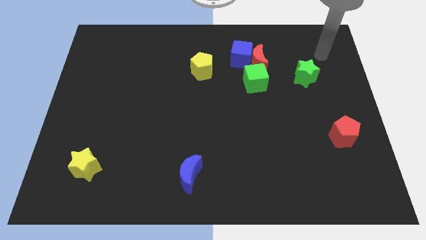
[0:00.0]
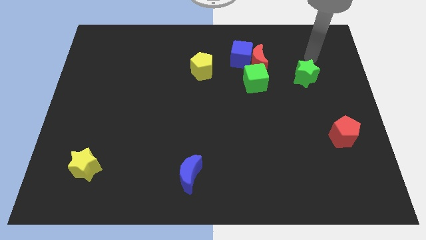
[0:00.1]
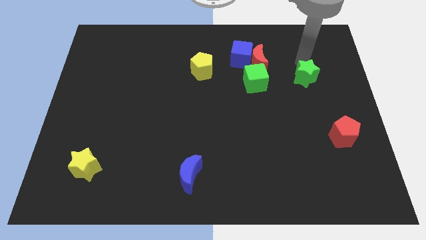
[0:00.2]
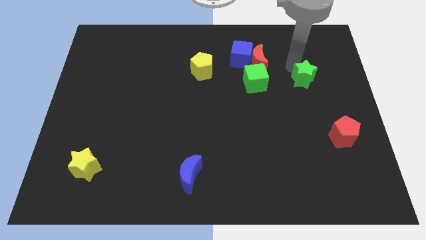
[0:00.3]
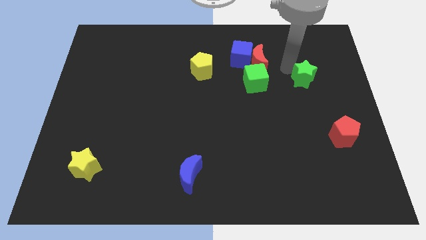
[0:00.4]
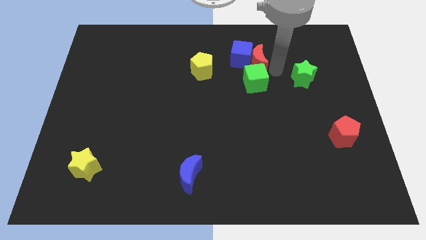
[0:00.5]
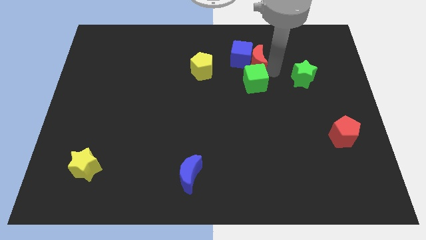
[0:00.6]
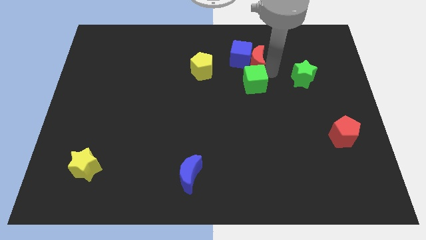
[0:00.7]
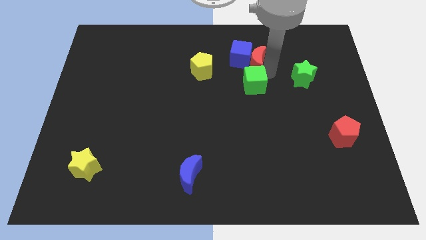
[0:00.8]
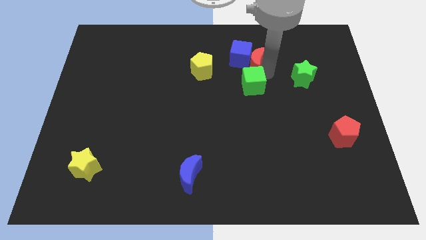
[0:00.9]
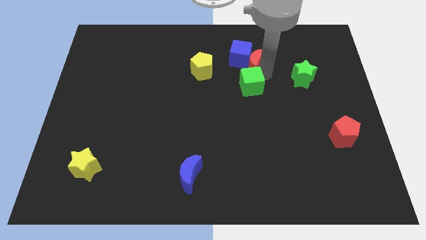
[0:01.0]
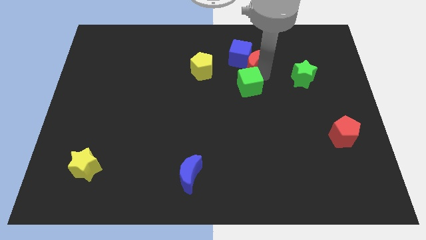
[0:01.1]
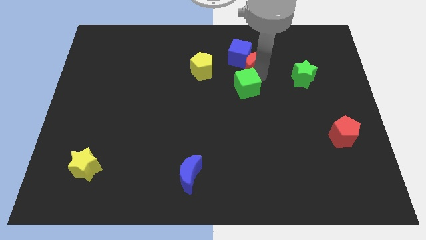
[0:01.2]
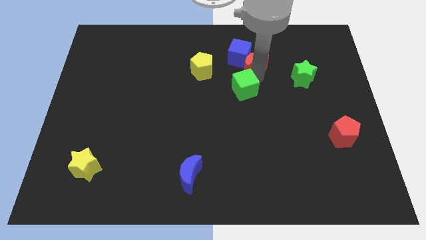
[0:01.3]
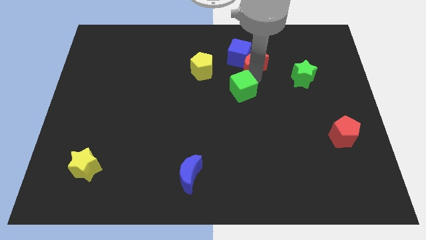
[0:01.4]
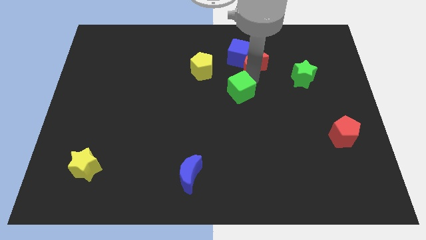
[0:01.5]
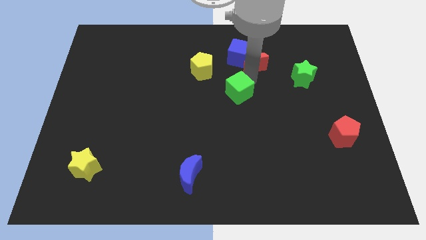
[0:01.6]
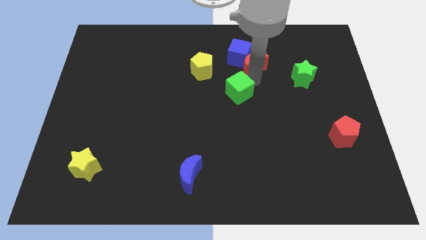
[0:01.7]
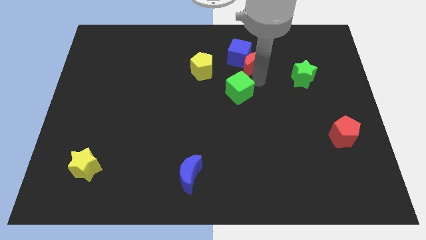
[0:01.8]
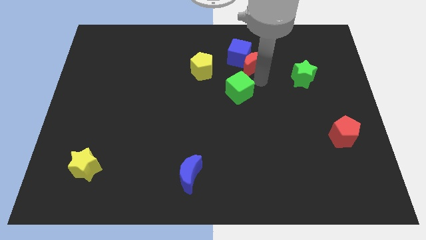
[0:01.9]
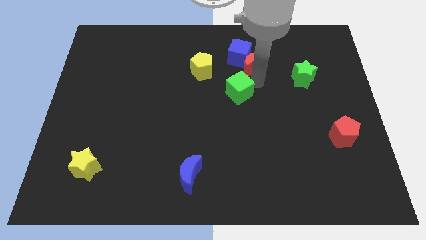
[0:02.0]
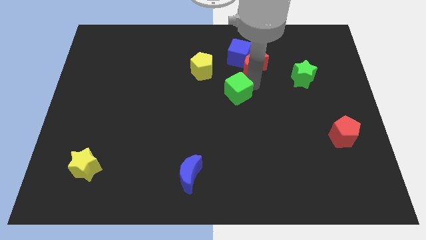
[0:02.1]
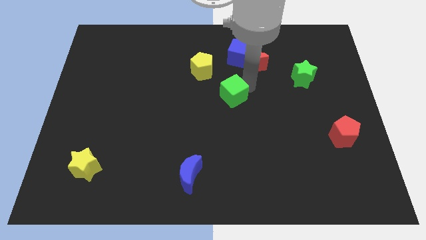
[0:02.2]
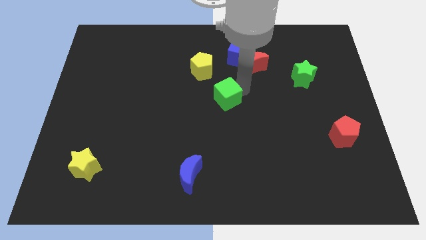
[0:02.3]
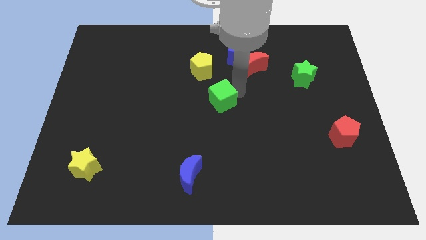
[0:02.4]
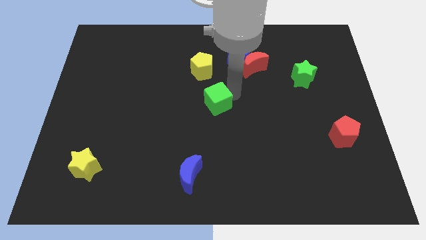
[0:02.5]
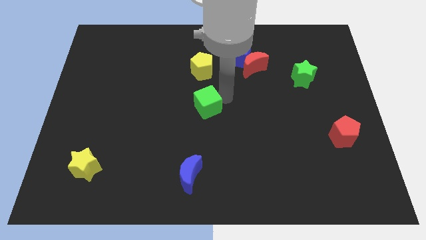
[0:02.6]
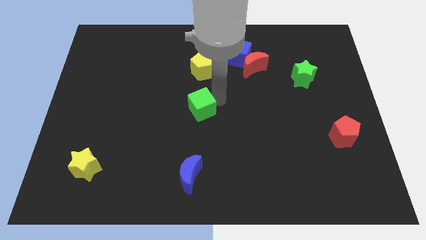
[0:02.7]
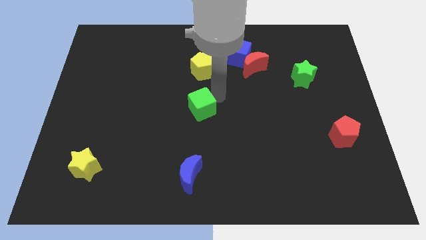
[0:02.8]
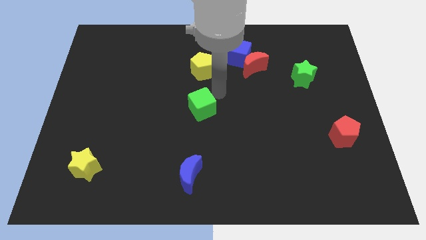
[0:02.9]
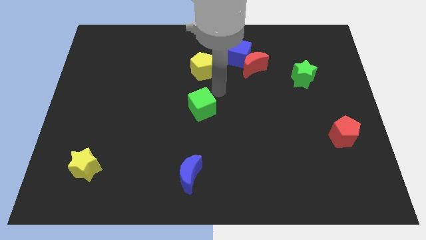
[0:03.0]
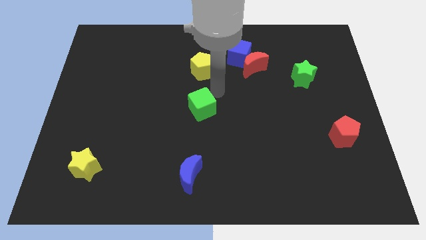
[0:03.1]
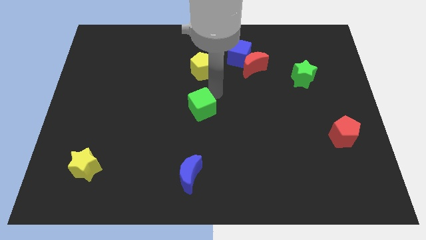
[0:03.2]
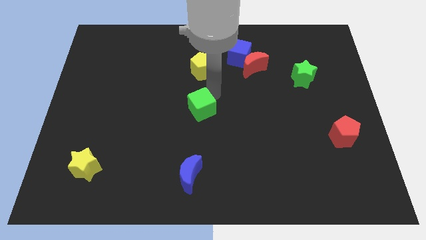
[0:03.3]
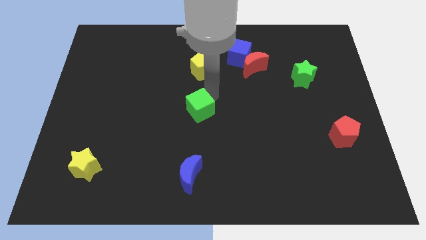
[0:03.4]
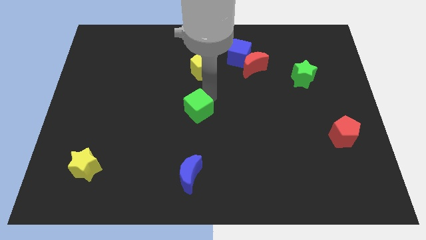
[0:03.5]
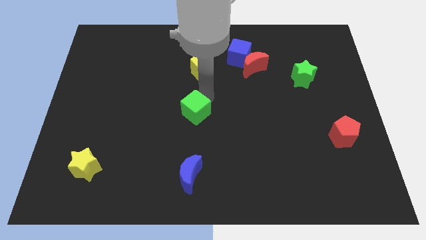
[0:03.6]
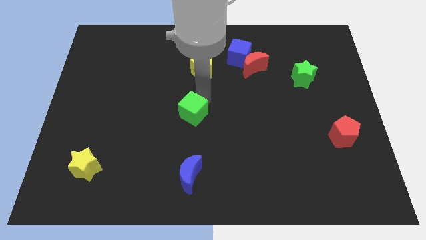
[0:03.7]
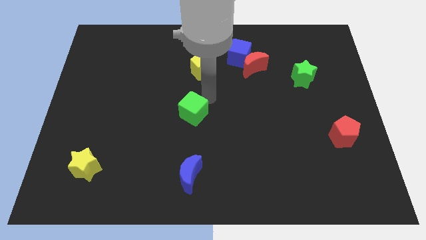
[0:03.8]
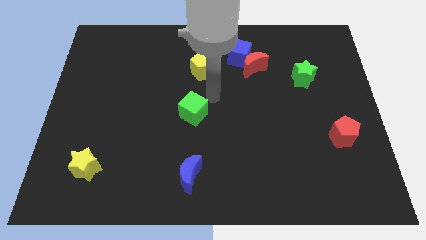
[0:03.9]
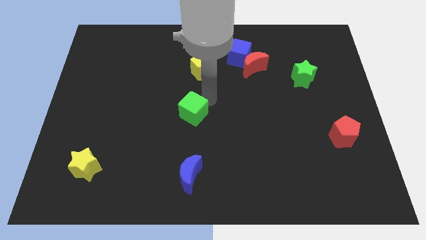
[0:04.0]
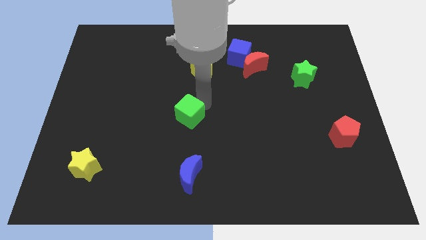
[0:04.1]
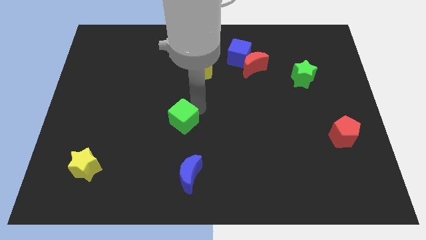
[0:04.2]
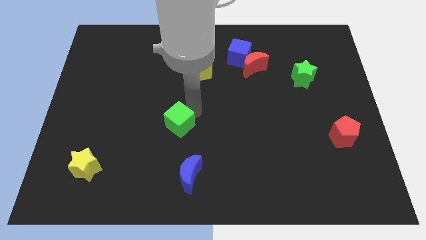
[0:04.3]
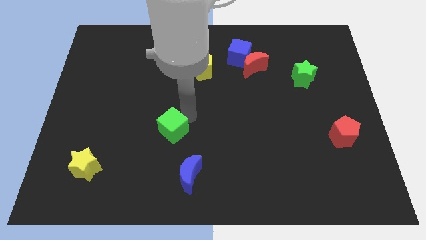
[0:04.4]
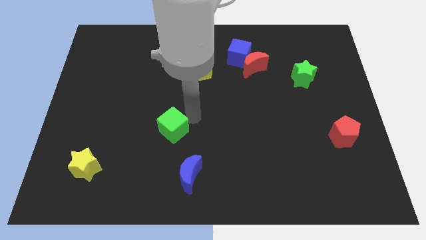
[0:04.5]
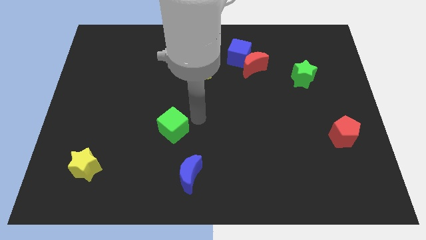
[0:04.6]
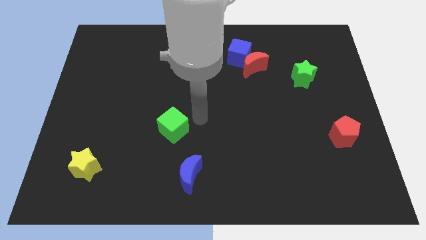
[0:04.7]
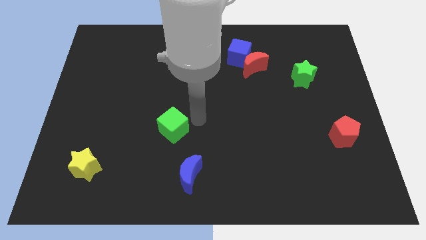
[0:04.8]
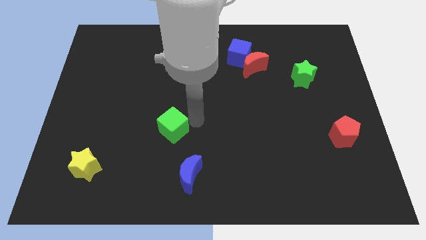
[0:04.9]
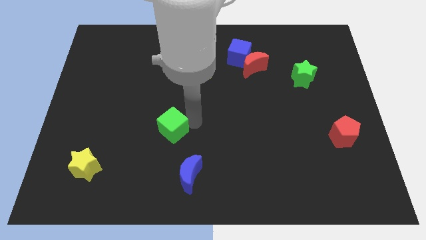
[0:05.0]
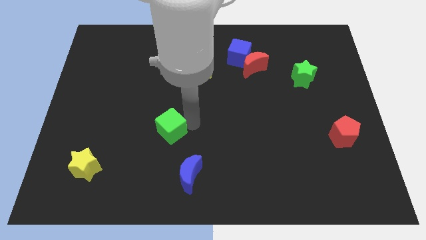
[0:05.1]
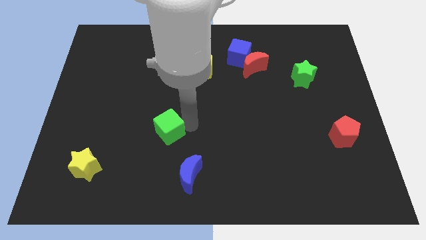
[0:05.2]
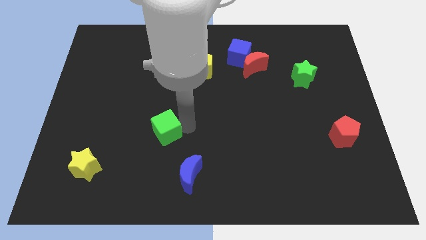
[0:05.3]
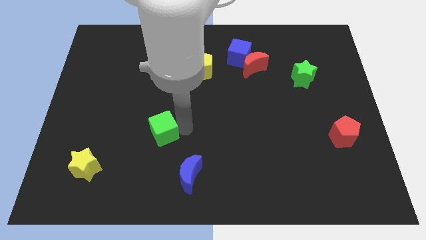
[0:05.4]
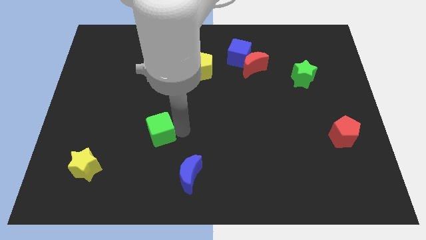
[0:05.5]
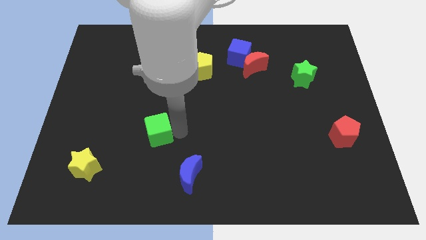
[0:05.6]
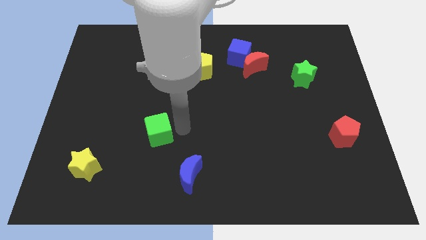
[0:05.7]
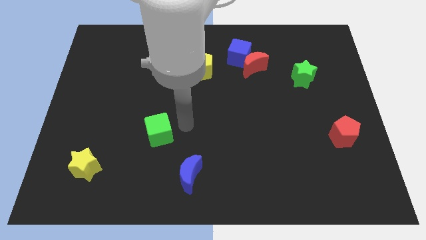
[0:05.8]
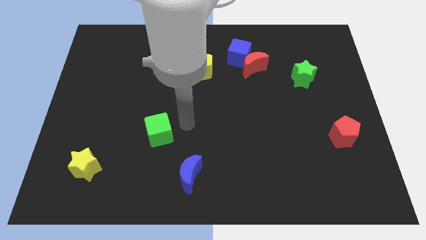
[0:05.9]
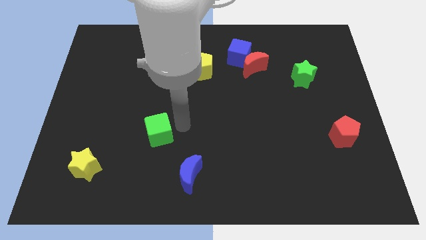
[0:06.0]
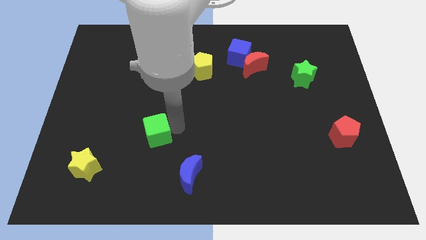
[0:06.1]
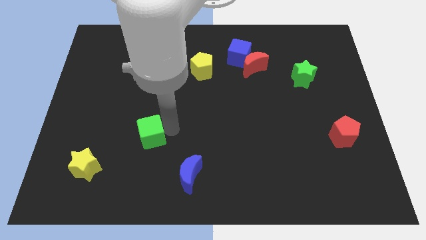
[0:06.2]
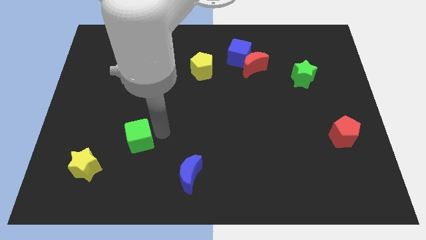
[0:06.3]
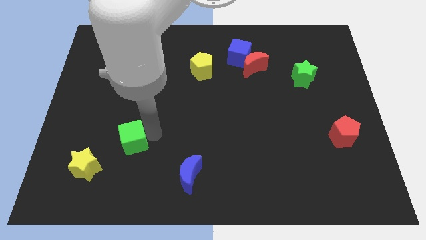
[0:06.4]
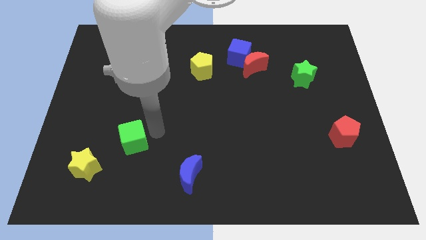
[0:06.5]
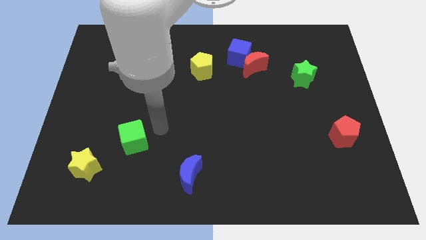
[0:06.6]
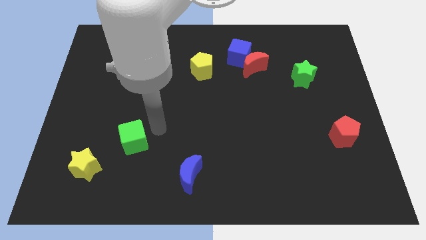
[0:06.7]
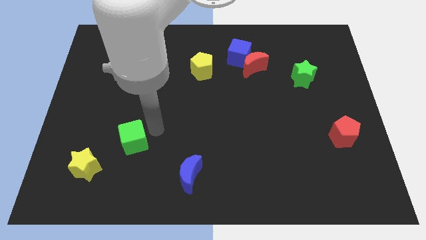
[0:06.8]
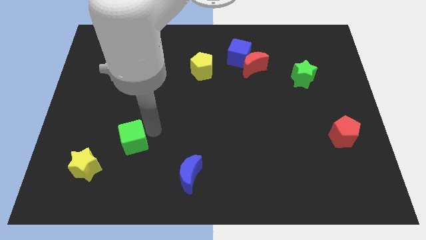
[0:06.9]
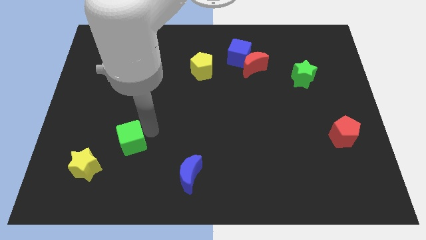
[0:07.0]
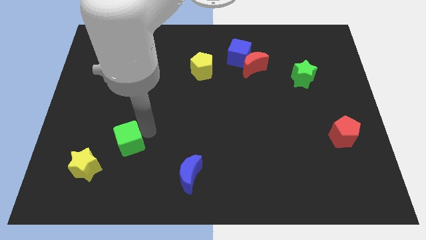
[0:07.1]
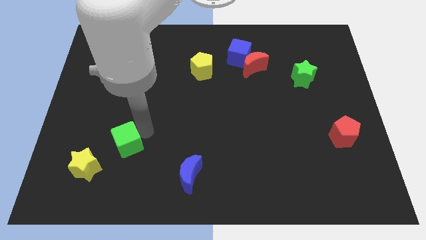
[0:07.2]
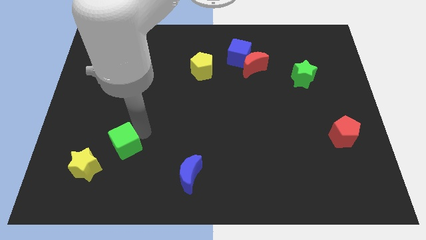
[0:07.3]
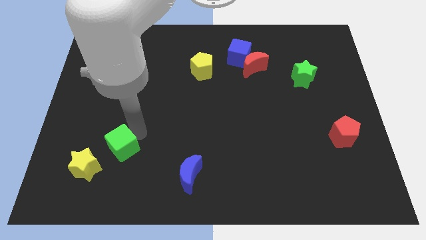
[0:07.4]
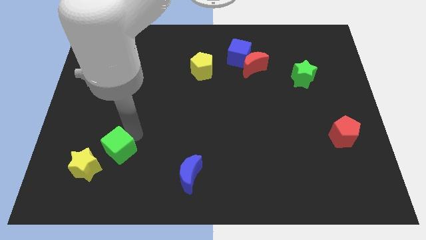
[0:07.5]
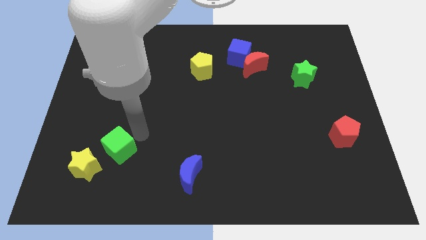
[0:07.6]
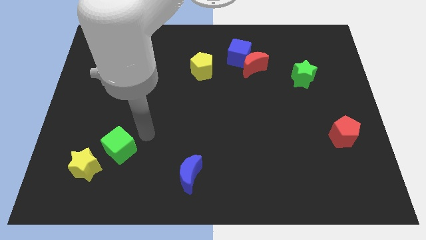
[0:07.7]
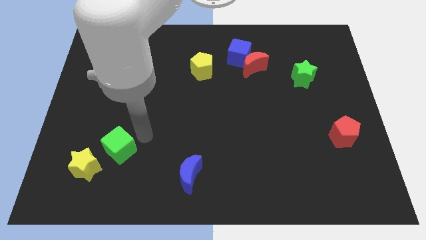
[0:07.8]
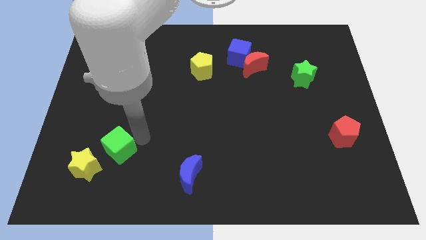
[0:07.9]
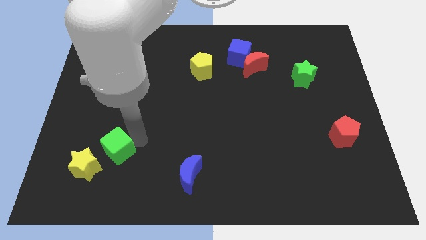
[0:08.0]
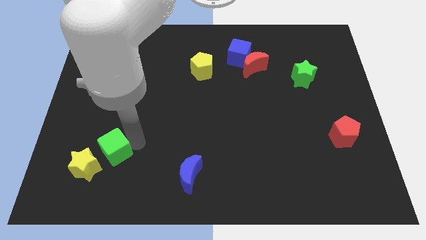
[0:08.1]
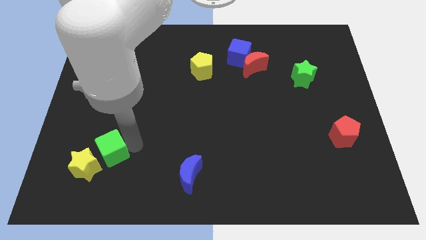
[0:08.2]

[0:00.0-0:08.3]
move the green cube to the yellow star
